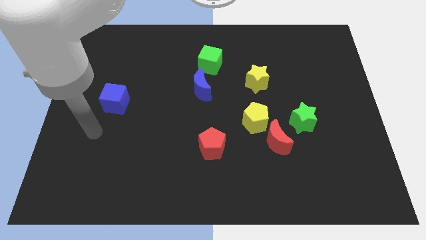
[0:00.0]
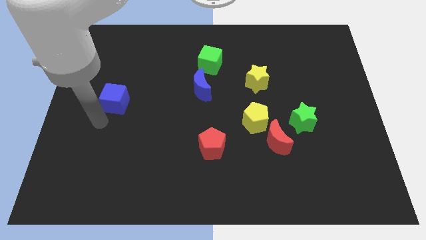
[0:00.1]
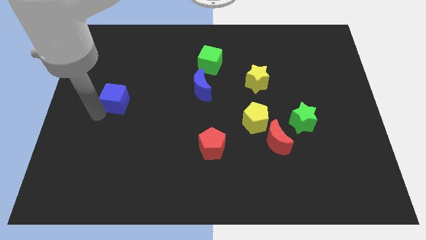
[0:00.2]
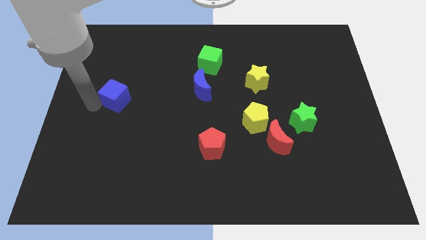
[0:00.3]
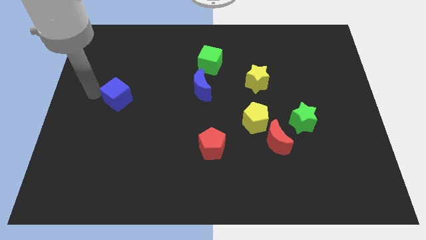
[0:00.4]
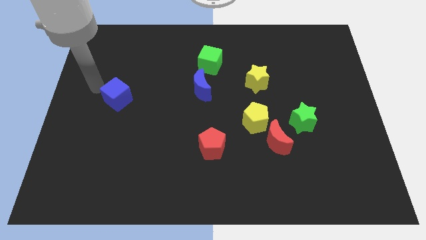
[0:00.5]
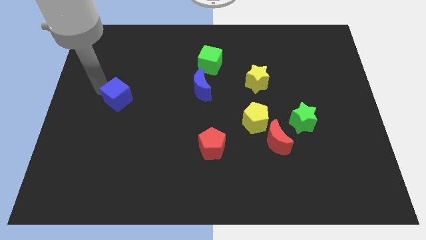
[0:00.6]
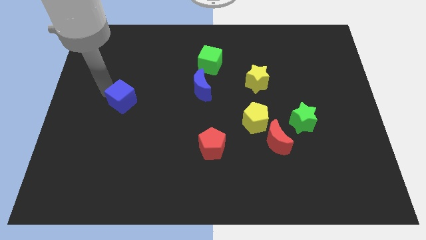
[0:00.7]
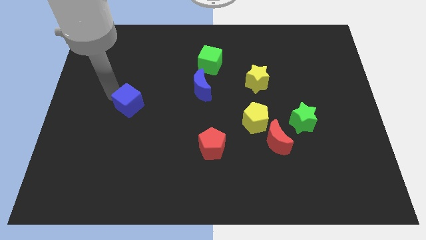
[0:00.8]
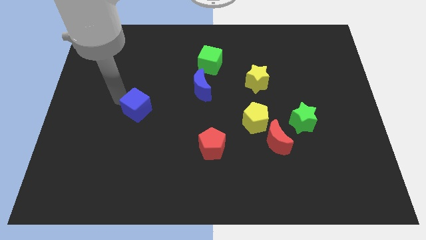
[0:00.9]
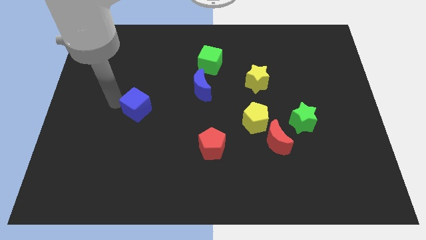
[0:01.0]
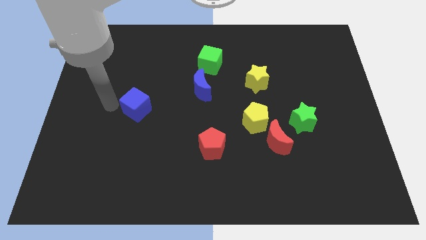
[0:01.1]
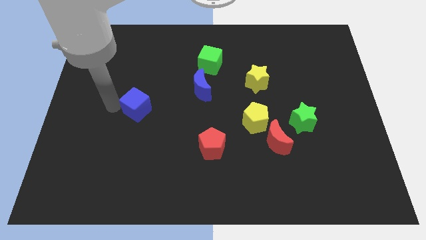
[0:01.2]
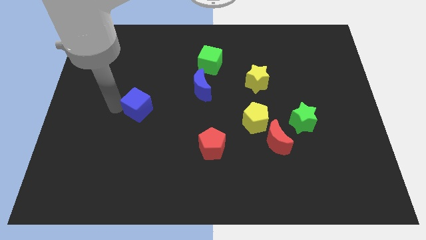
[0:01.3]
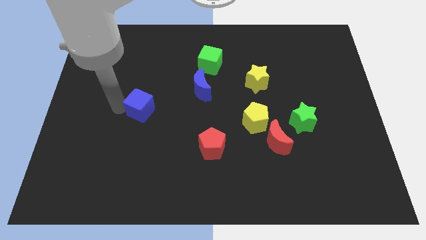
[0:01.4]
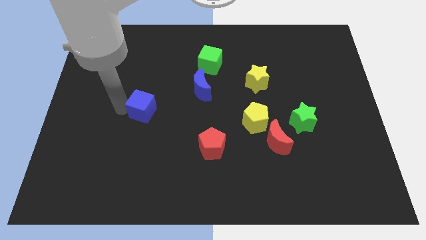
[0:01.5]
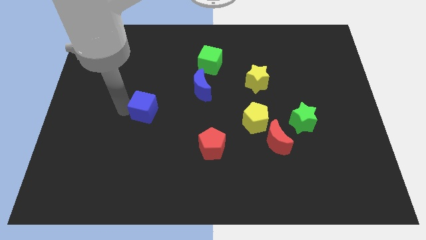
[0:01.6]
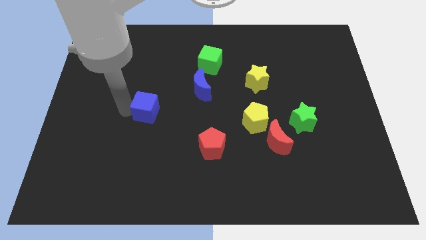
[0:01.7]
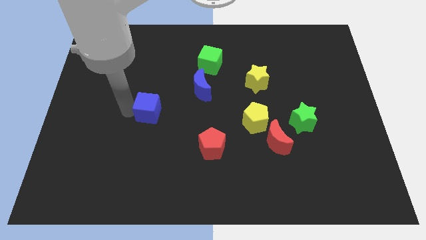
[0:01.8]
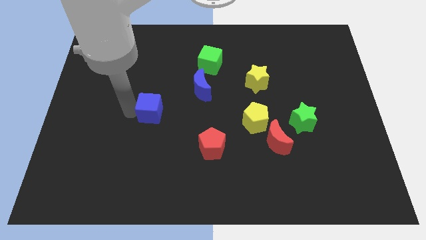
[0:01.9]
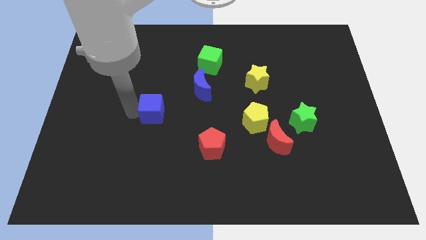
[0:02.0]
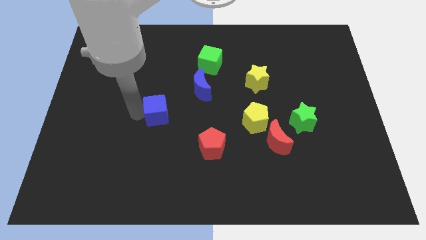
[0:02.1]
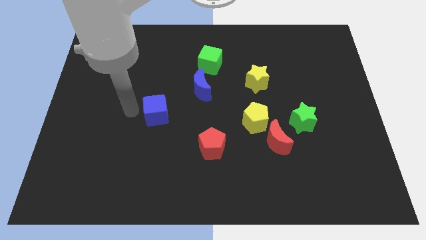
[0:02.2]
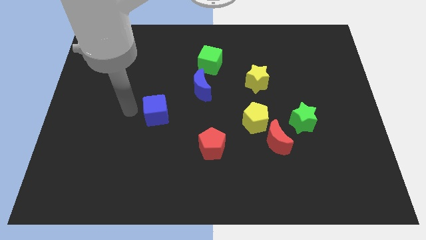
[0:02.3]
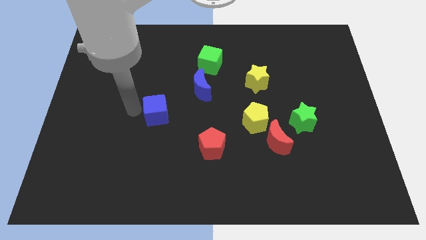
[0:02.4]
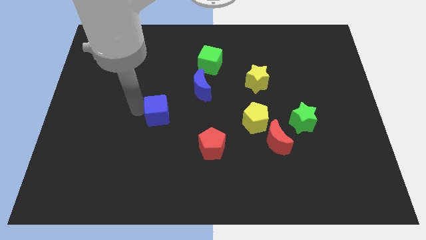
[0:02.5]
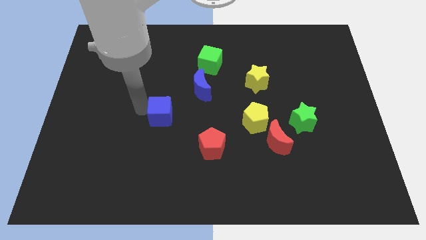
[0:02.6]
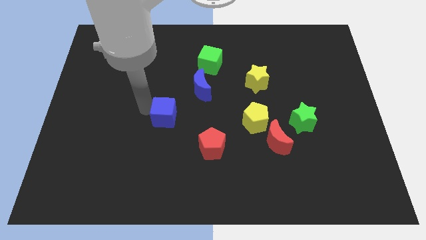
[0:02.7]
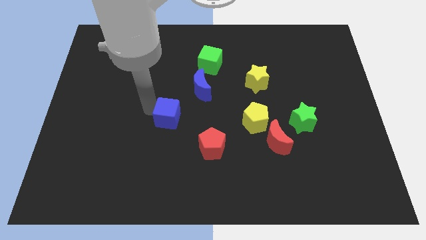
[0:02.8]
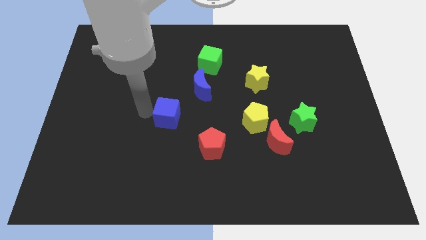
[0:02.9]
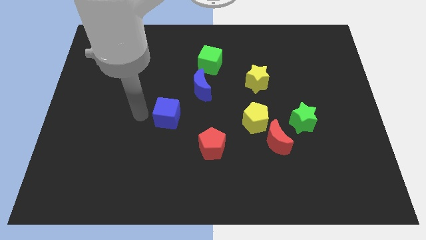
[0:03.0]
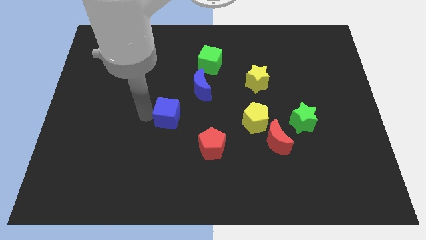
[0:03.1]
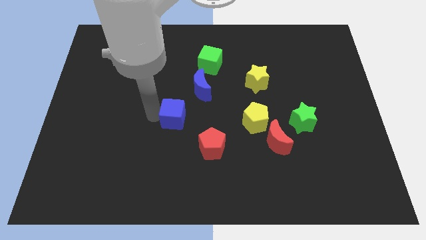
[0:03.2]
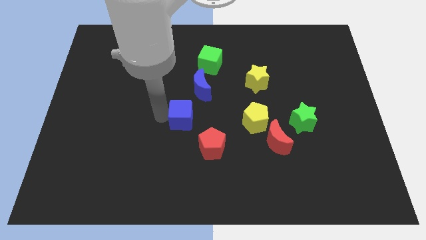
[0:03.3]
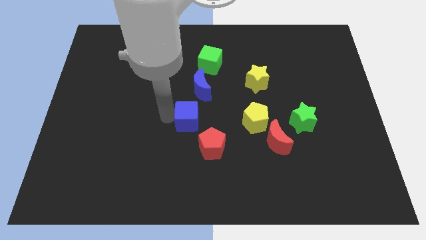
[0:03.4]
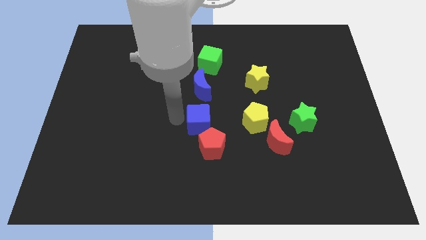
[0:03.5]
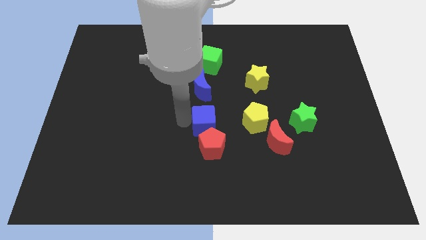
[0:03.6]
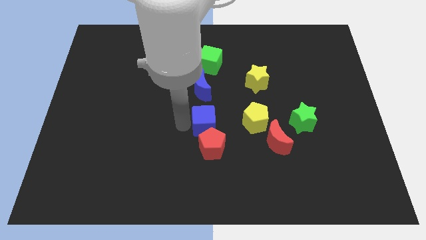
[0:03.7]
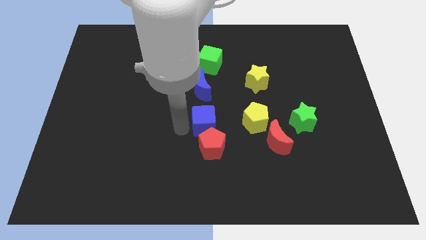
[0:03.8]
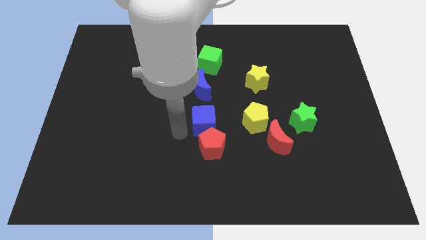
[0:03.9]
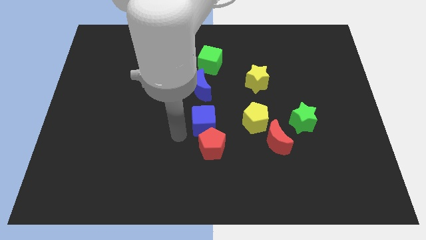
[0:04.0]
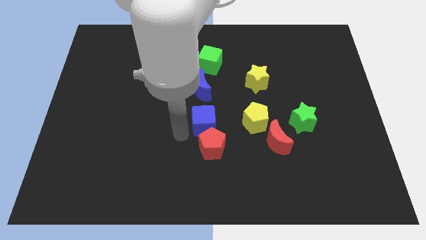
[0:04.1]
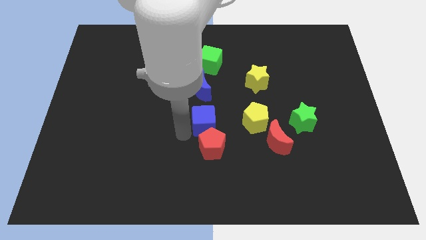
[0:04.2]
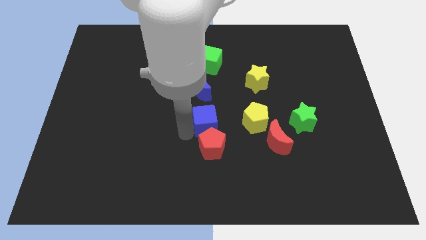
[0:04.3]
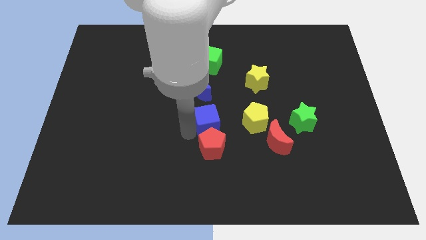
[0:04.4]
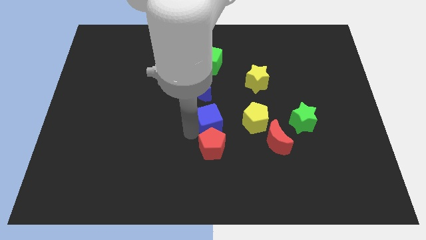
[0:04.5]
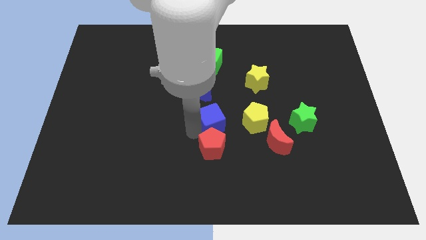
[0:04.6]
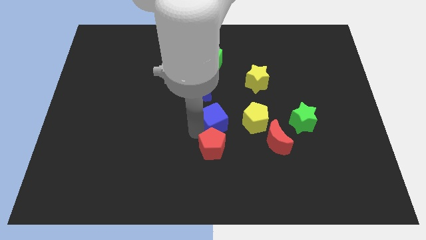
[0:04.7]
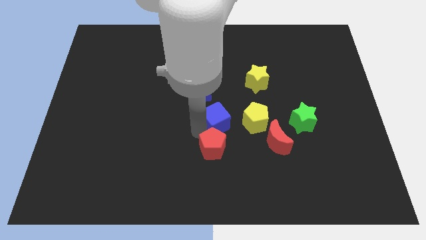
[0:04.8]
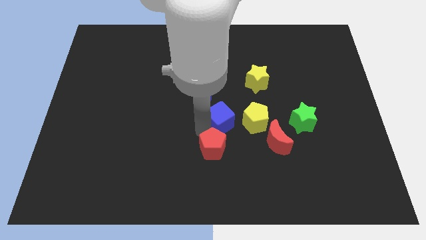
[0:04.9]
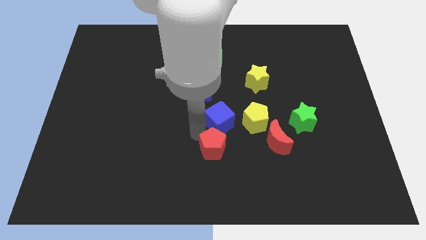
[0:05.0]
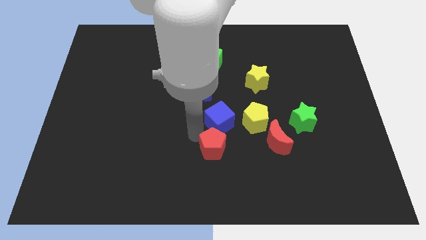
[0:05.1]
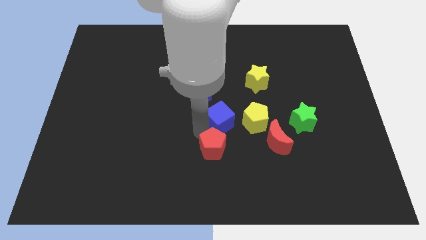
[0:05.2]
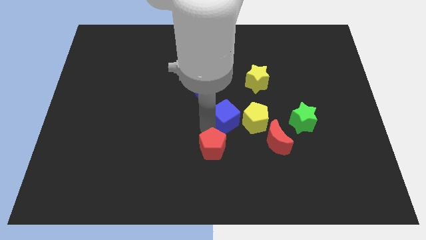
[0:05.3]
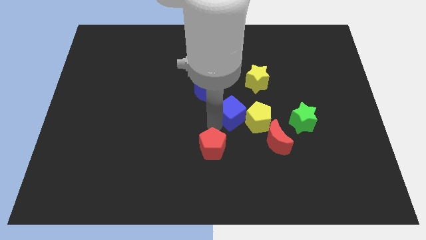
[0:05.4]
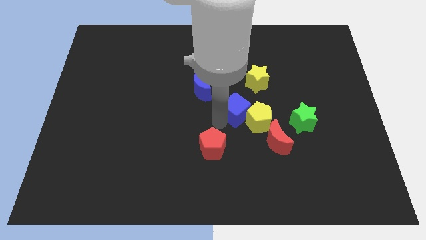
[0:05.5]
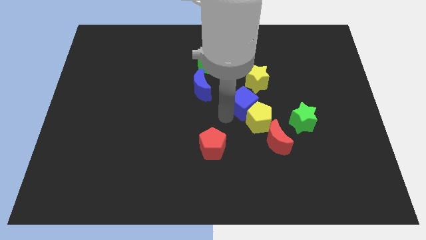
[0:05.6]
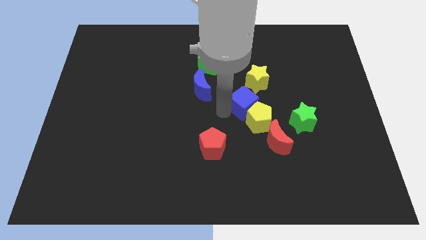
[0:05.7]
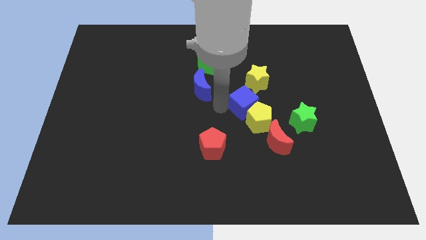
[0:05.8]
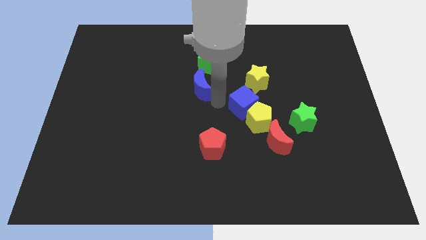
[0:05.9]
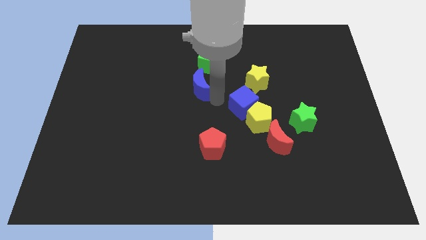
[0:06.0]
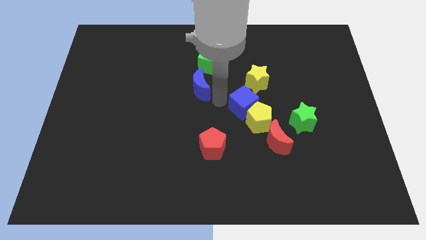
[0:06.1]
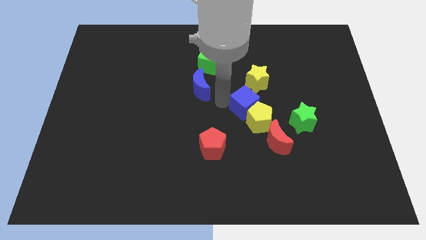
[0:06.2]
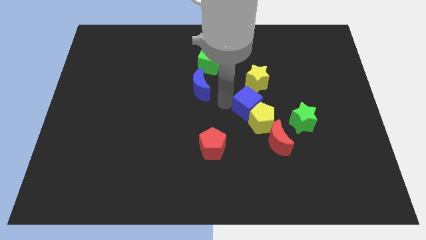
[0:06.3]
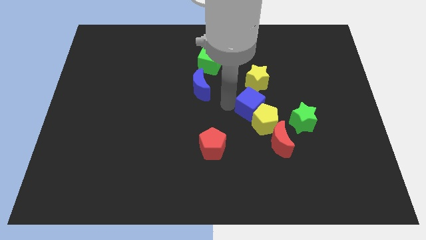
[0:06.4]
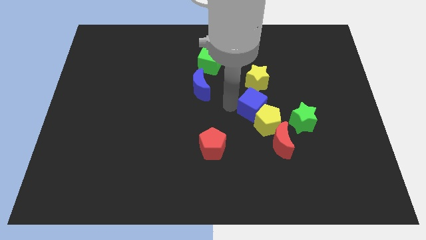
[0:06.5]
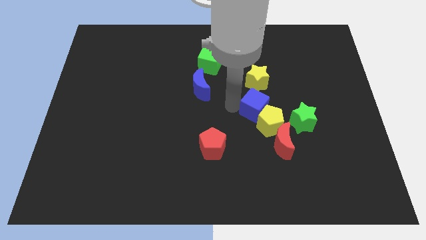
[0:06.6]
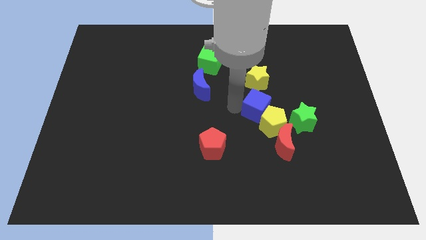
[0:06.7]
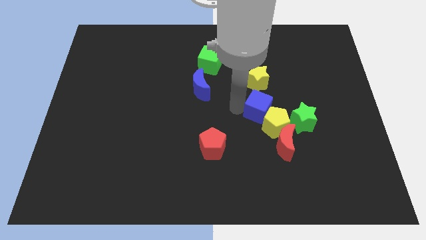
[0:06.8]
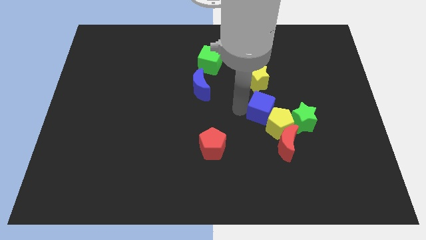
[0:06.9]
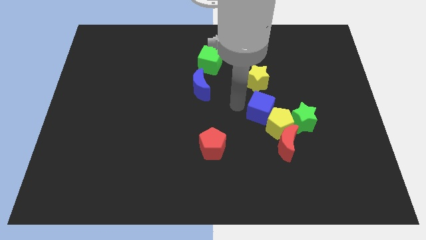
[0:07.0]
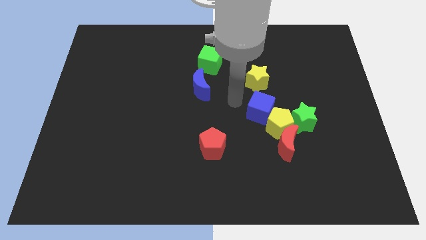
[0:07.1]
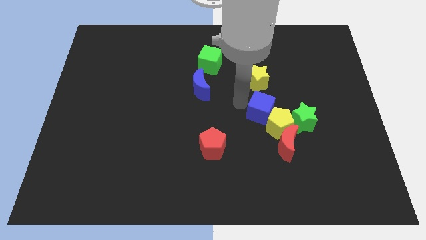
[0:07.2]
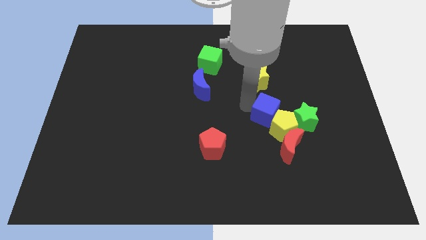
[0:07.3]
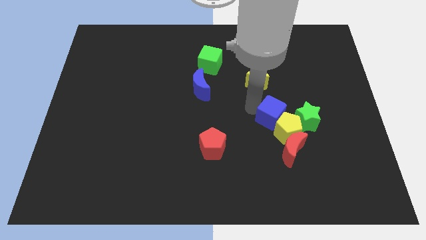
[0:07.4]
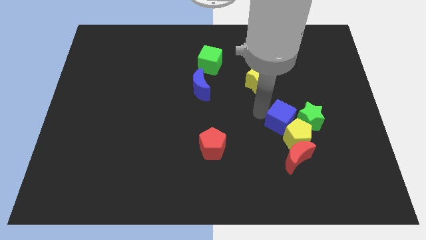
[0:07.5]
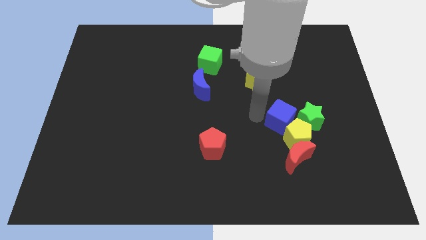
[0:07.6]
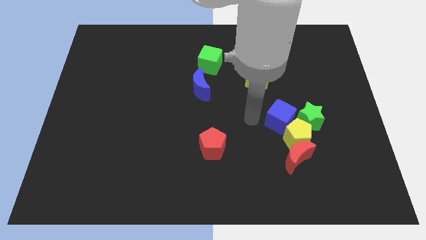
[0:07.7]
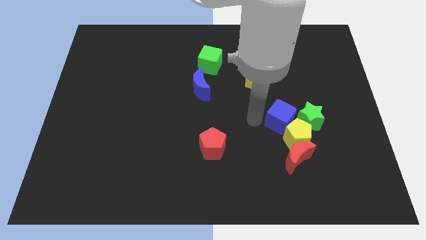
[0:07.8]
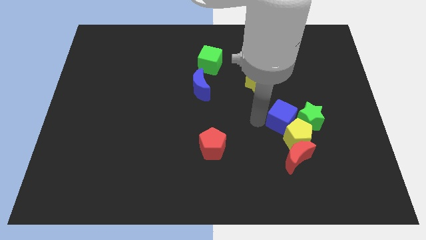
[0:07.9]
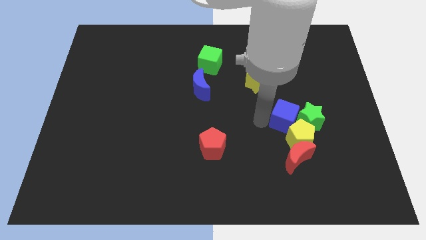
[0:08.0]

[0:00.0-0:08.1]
push the blue cube close to the green star
